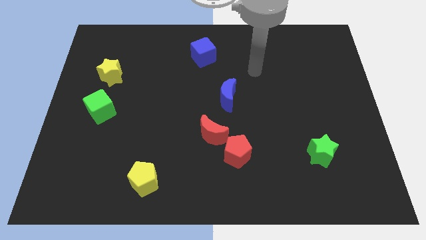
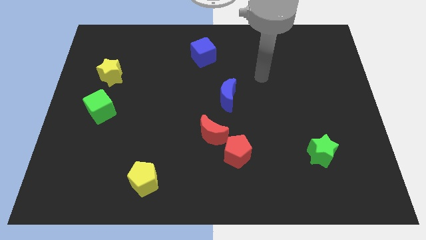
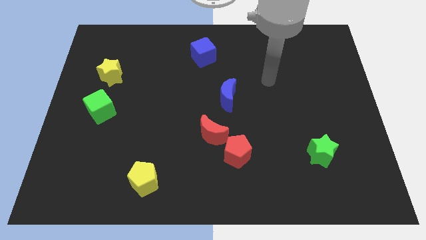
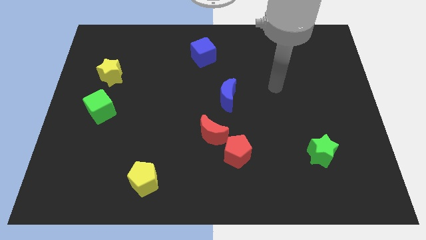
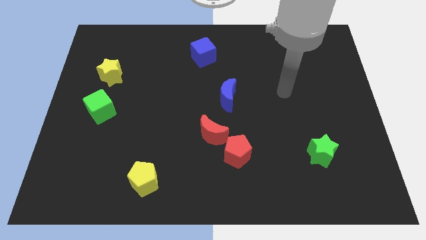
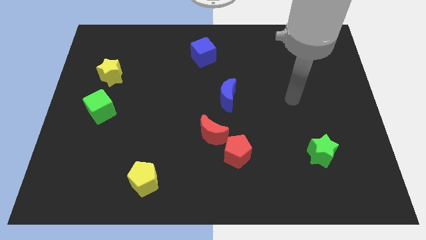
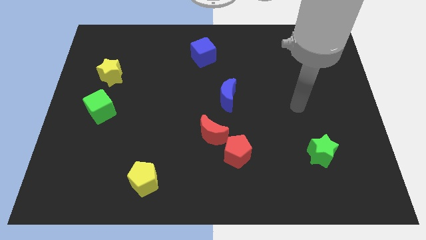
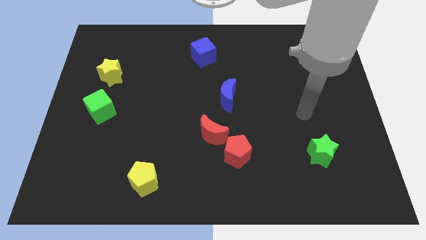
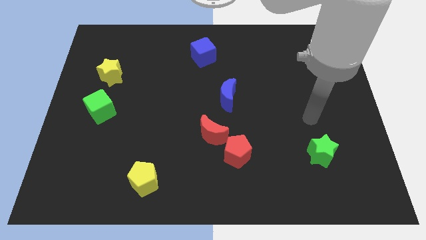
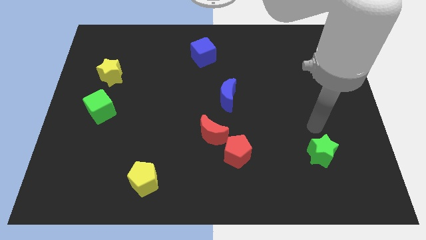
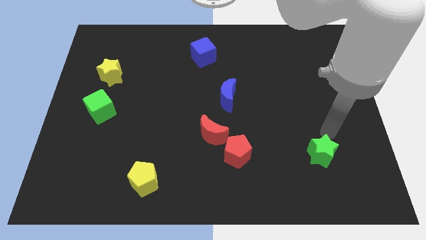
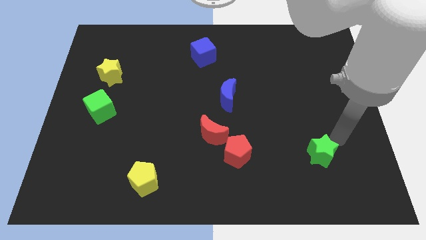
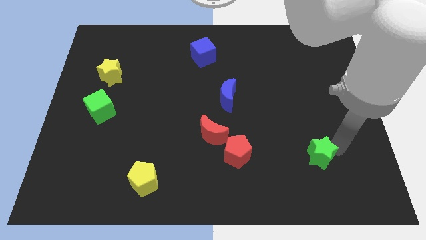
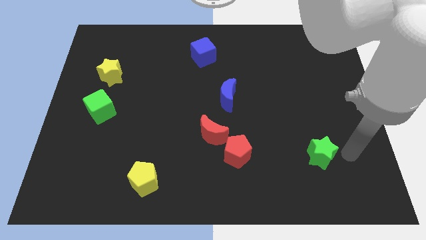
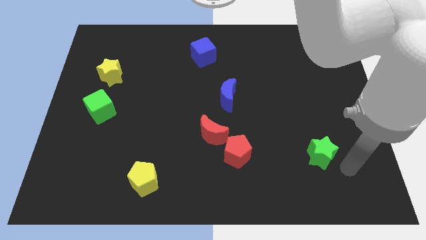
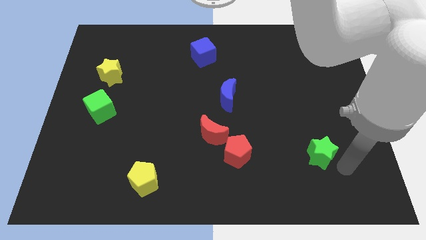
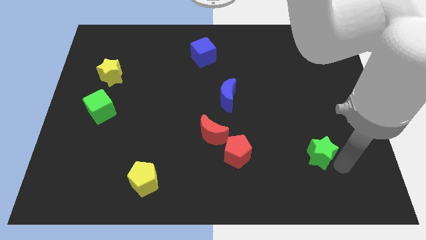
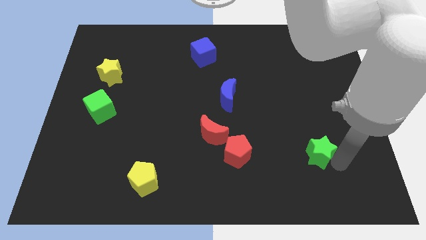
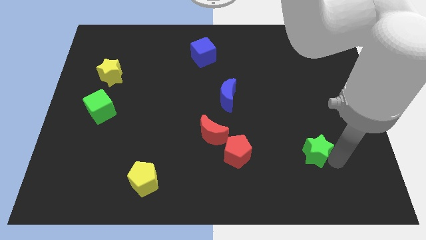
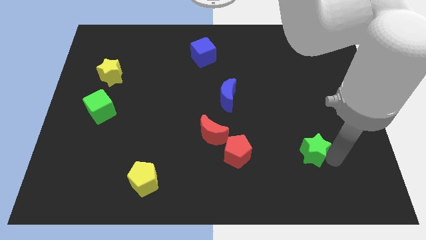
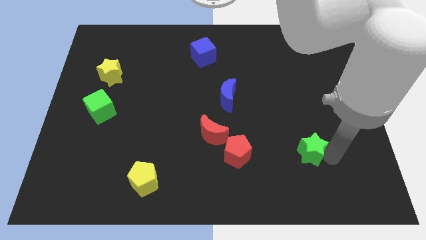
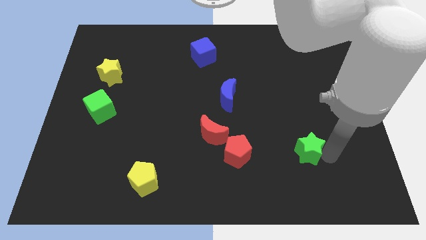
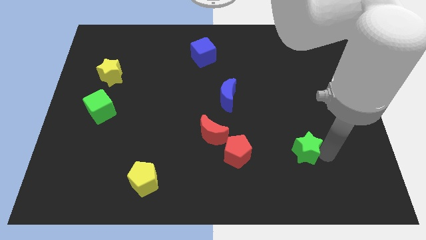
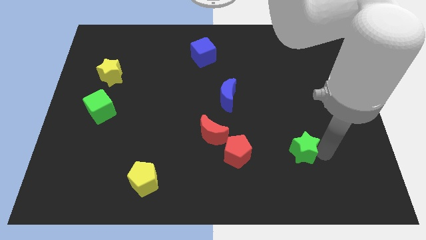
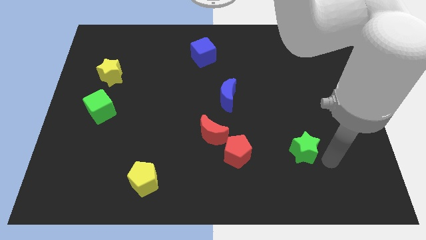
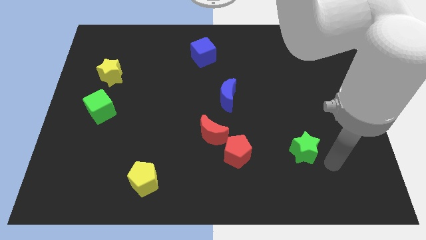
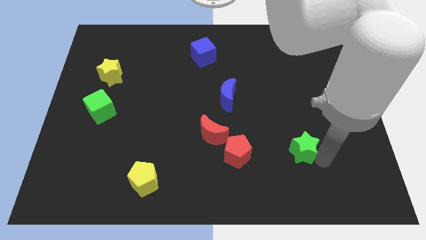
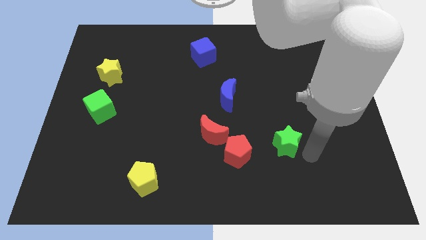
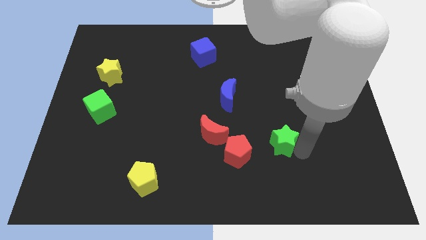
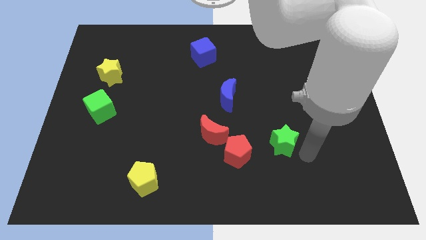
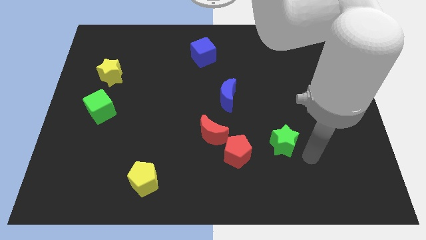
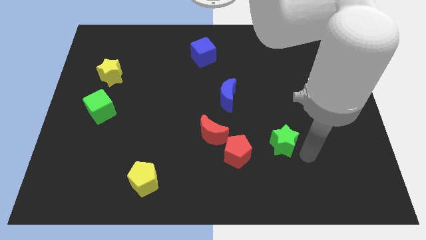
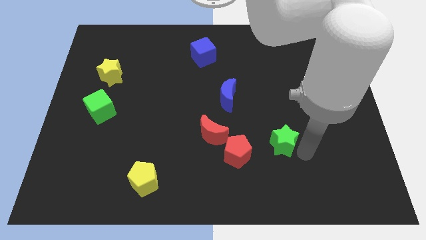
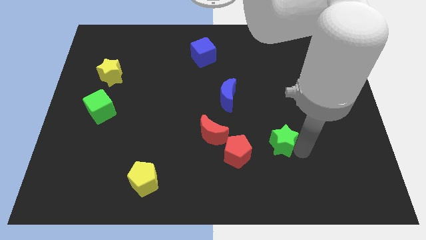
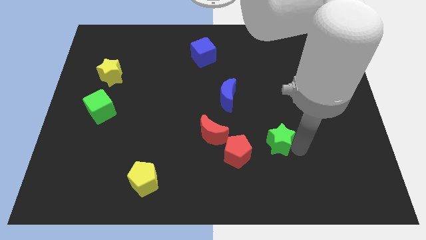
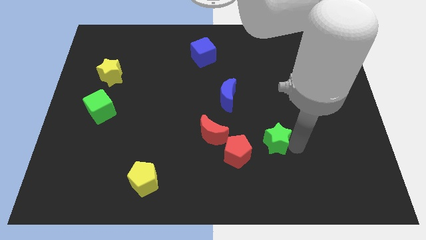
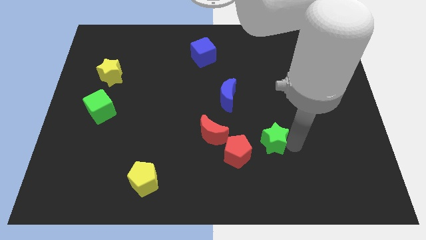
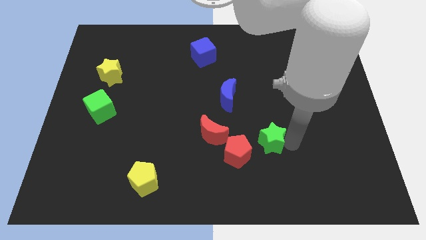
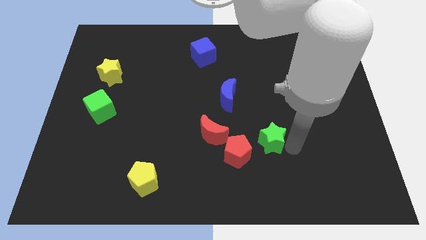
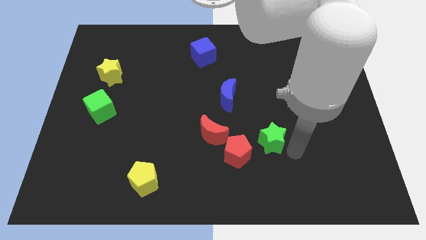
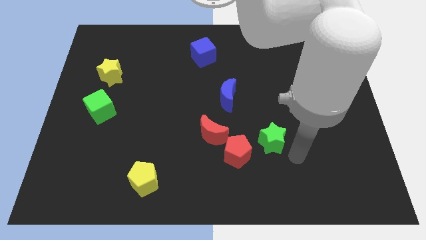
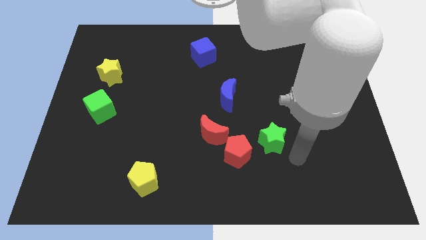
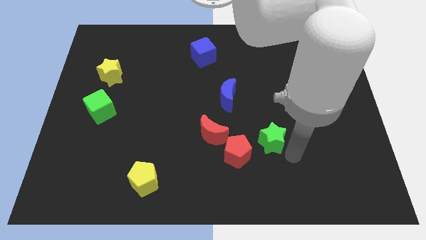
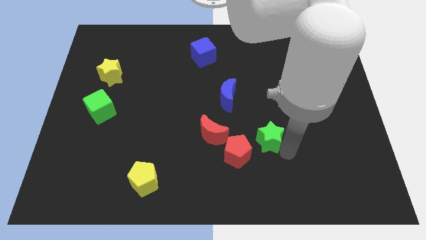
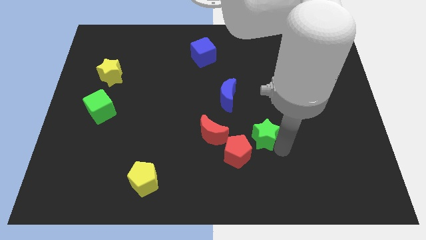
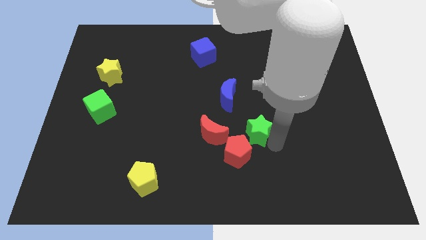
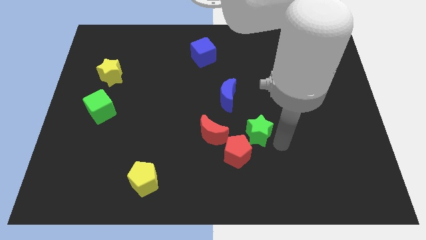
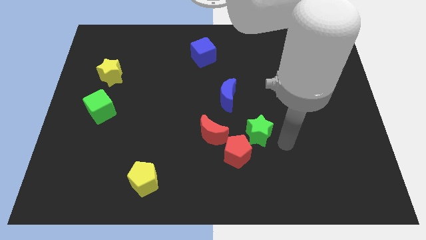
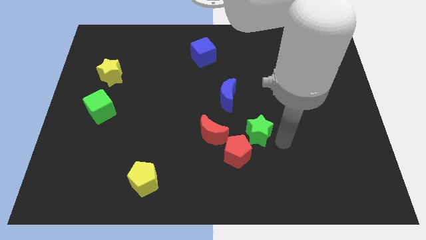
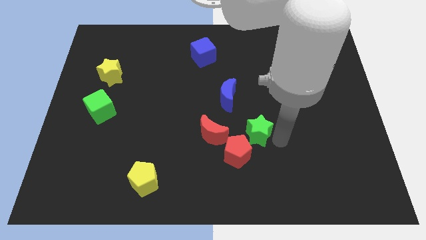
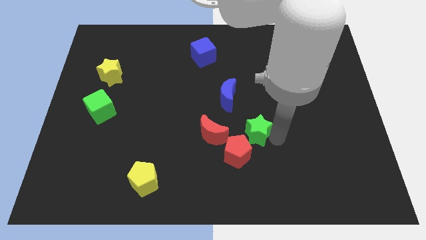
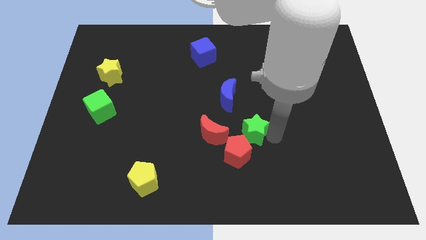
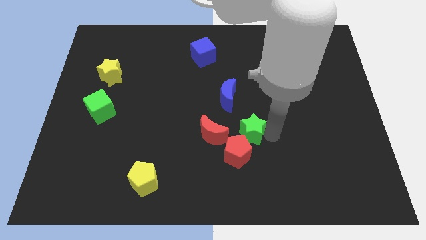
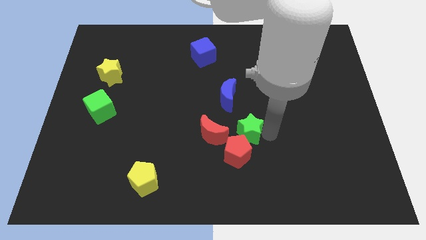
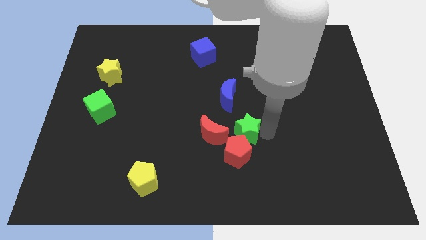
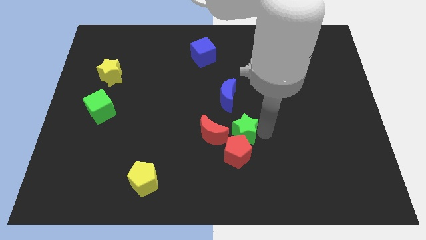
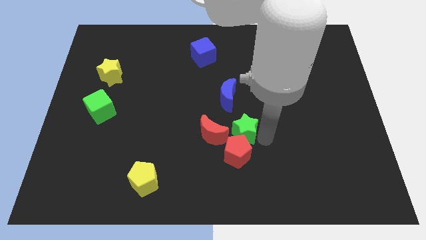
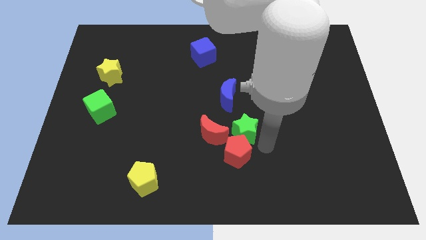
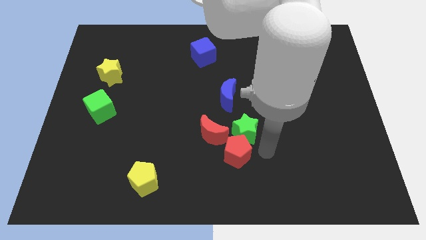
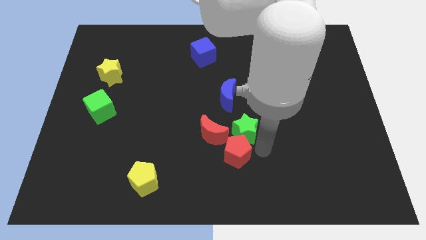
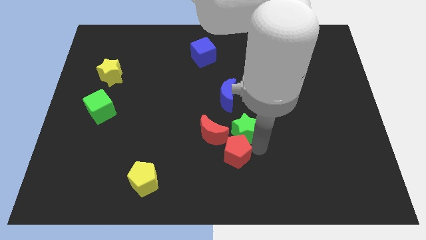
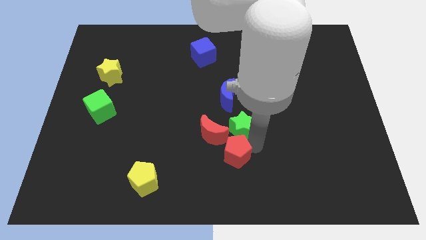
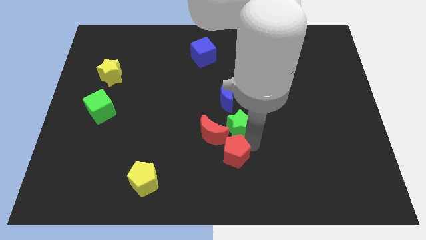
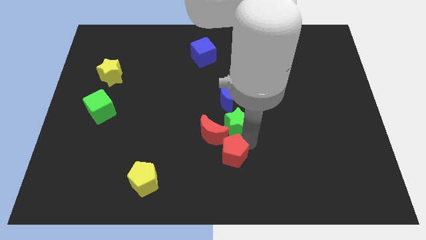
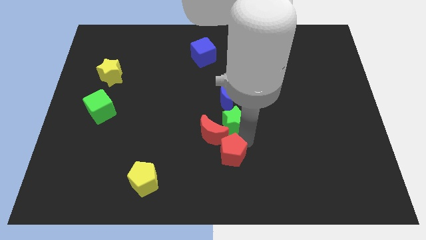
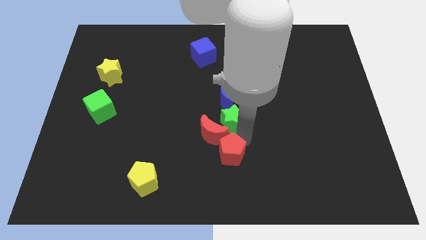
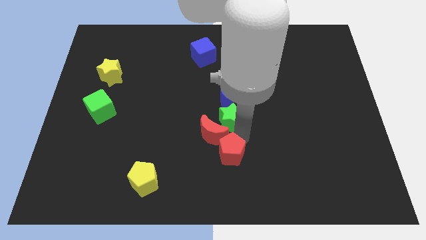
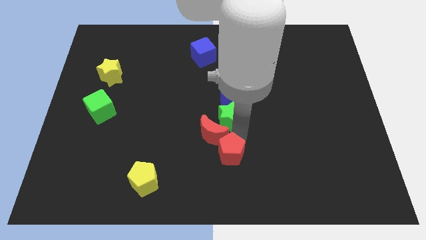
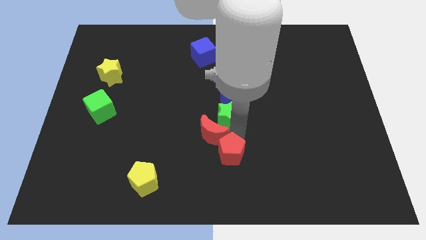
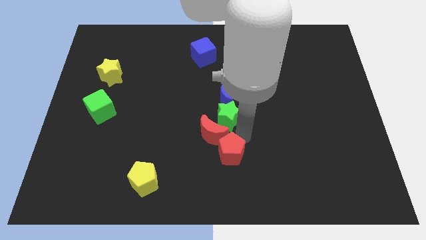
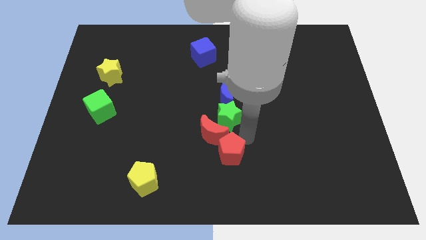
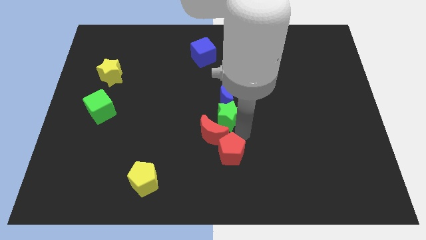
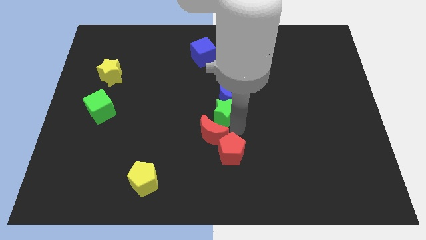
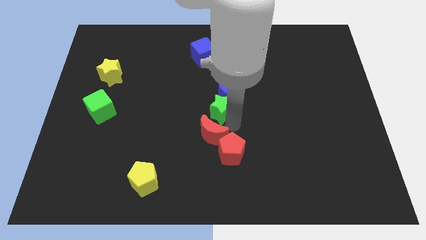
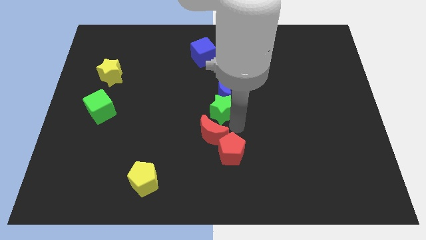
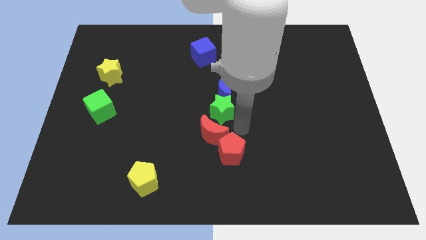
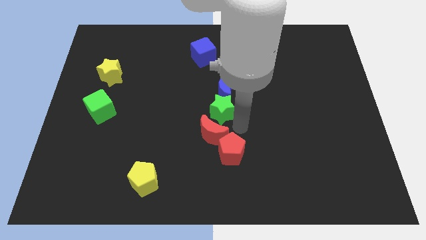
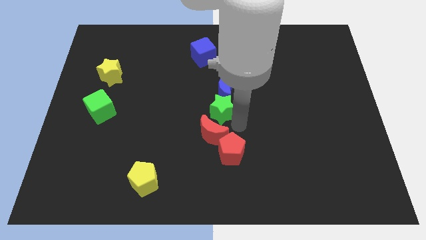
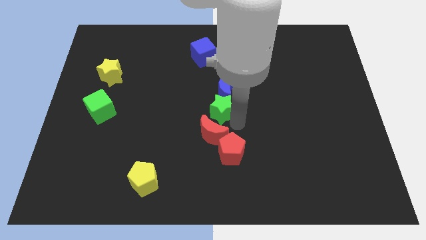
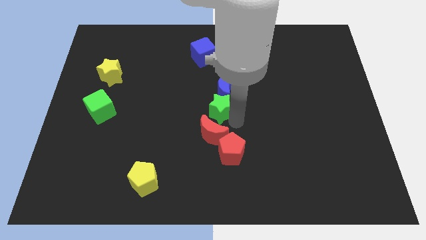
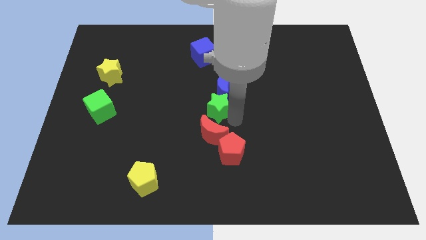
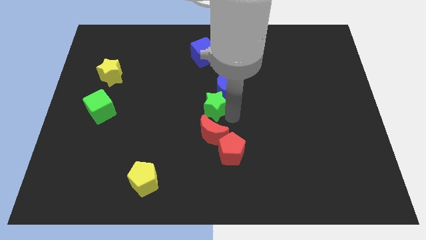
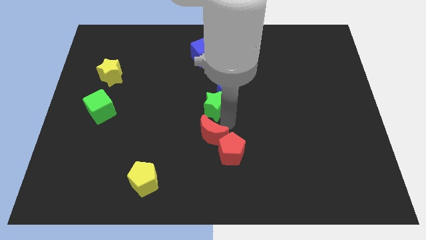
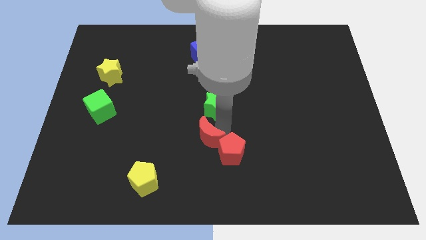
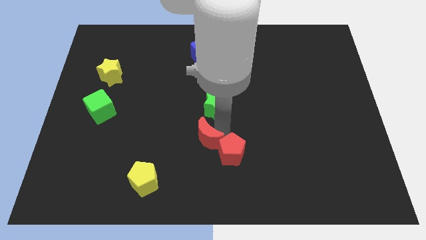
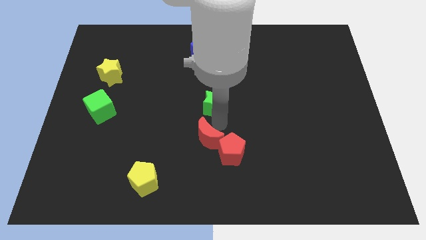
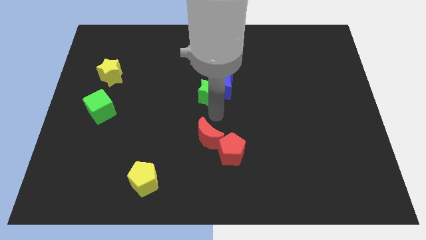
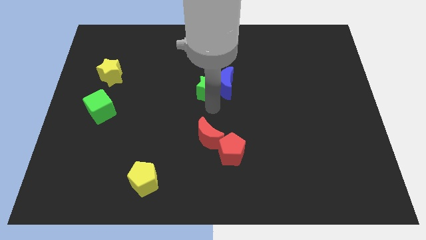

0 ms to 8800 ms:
slide the green star diagonally up and to the left of the blue moon
